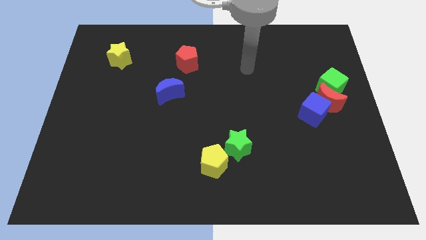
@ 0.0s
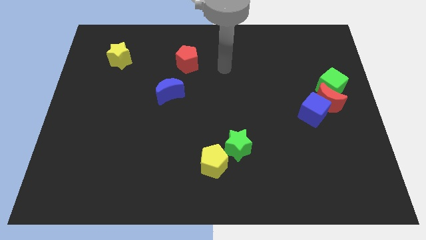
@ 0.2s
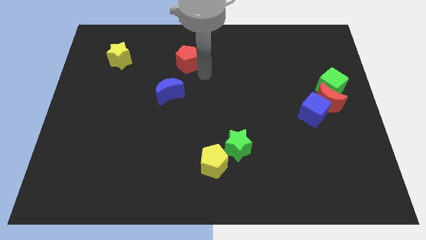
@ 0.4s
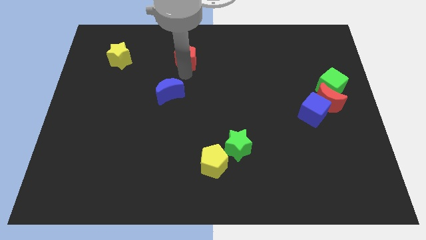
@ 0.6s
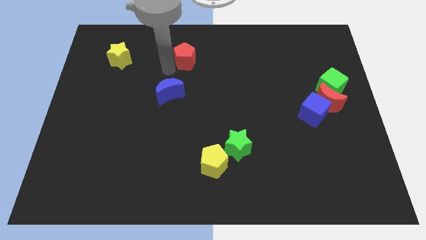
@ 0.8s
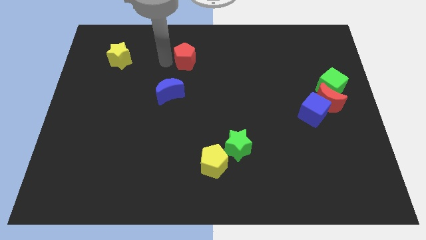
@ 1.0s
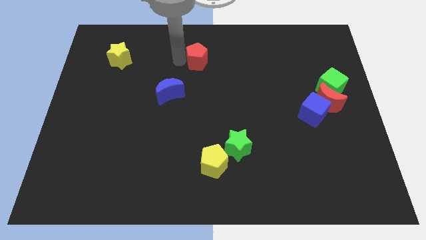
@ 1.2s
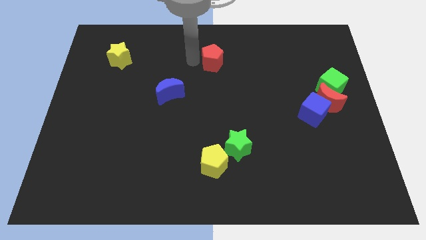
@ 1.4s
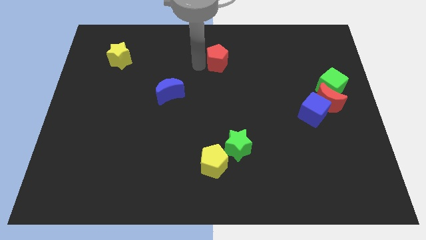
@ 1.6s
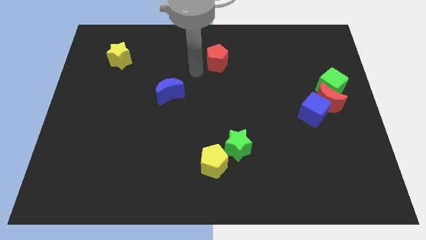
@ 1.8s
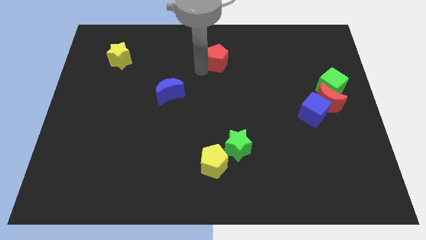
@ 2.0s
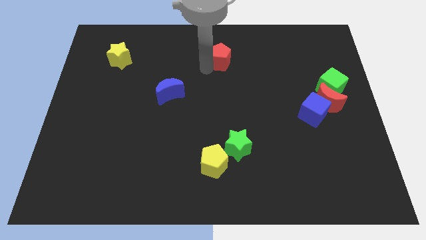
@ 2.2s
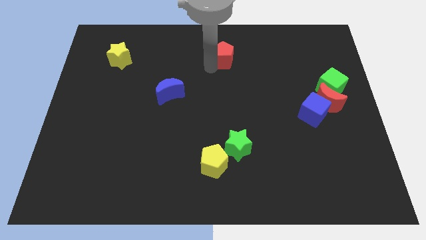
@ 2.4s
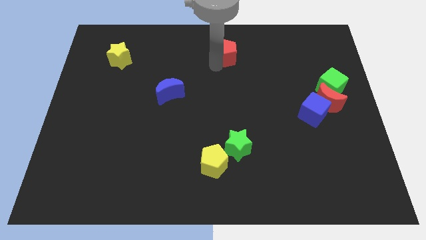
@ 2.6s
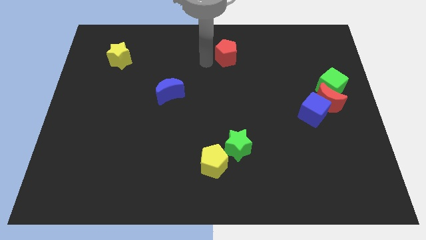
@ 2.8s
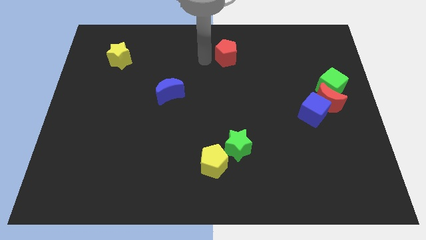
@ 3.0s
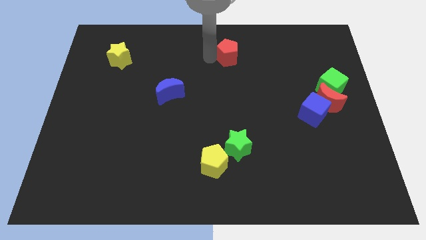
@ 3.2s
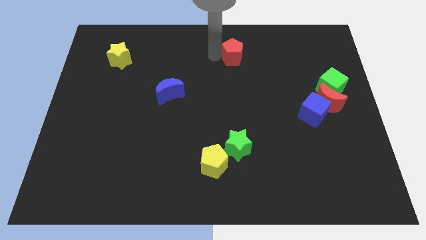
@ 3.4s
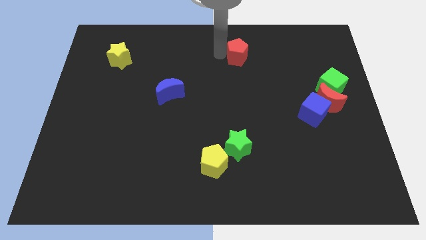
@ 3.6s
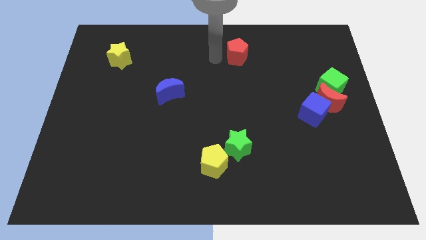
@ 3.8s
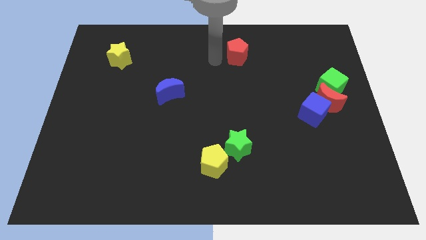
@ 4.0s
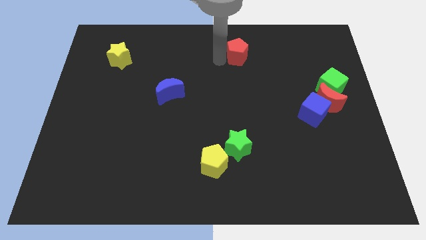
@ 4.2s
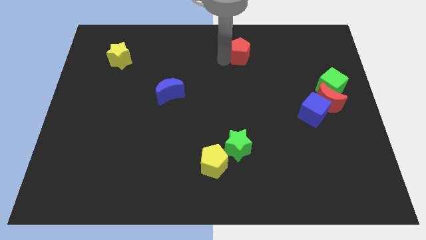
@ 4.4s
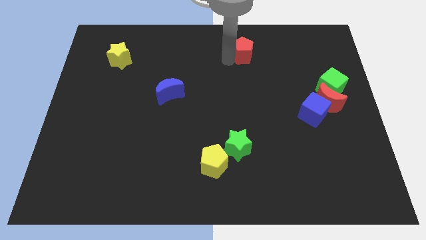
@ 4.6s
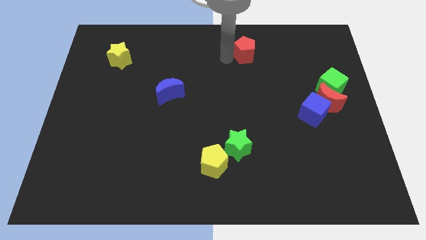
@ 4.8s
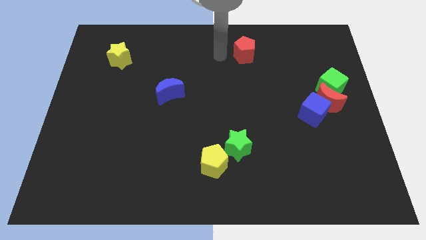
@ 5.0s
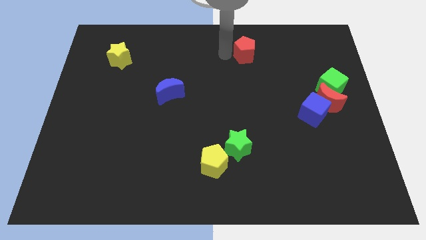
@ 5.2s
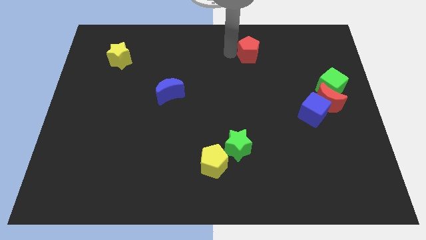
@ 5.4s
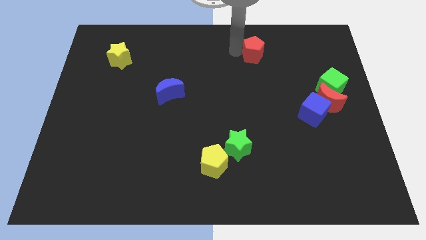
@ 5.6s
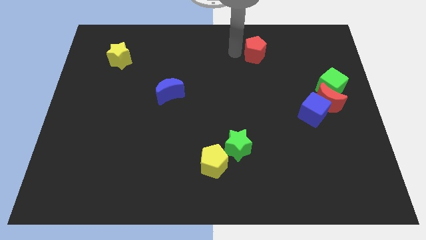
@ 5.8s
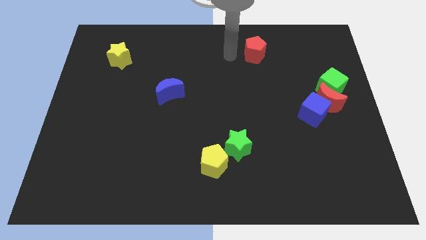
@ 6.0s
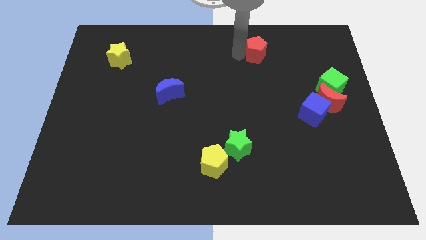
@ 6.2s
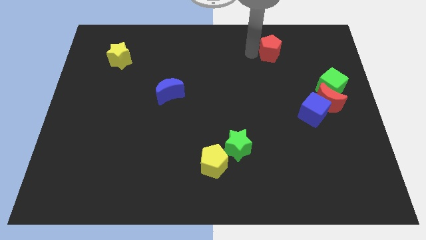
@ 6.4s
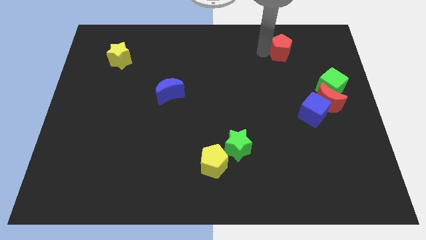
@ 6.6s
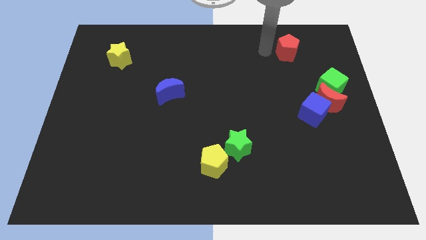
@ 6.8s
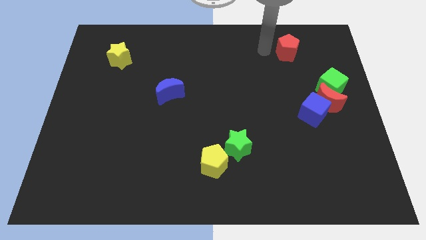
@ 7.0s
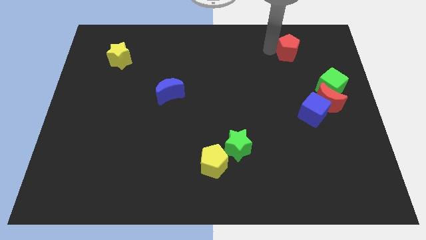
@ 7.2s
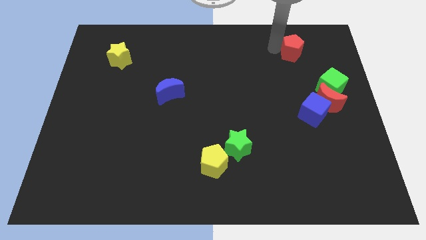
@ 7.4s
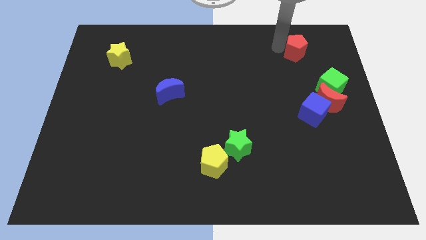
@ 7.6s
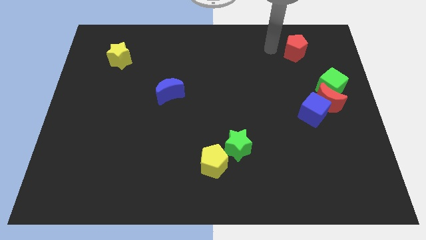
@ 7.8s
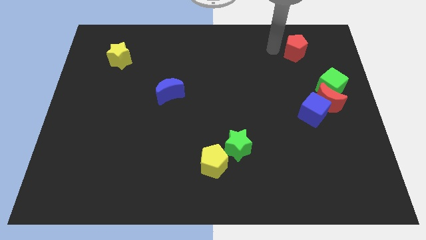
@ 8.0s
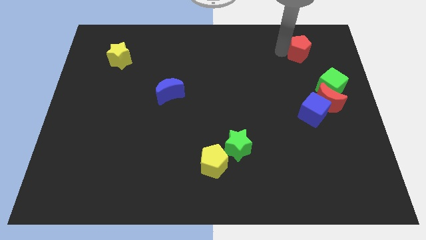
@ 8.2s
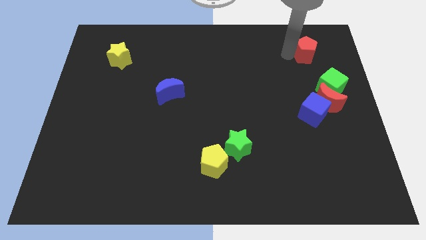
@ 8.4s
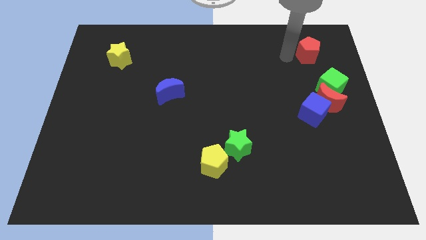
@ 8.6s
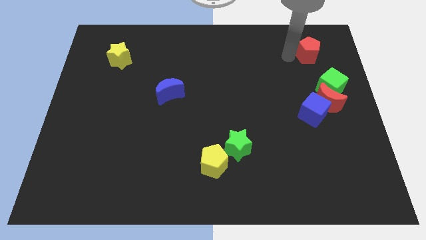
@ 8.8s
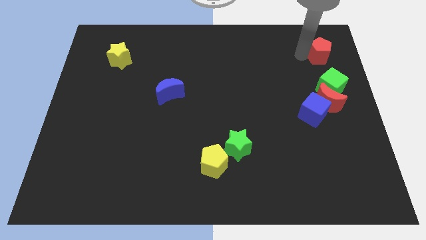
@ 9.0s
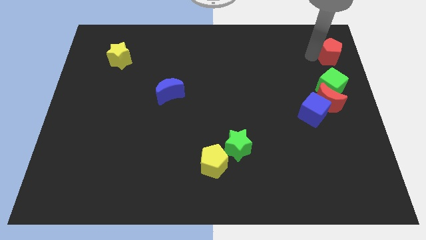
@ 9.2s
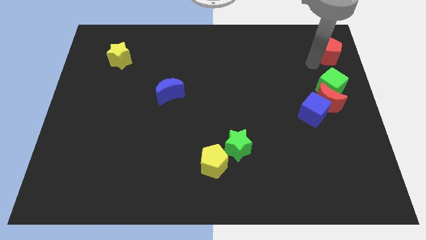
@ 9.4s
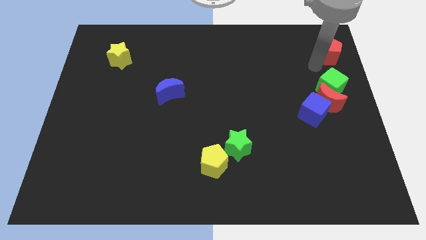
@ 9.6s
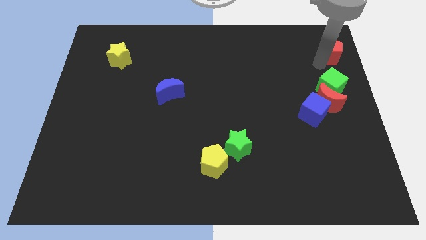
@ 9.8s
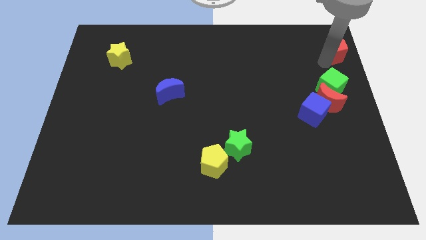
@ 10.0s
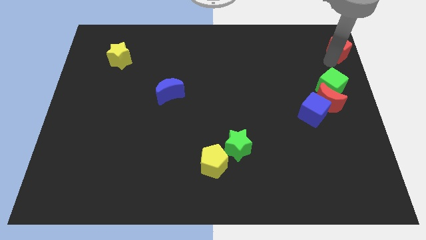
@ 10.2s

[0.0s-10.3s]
push the red pentagon to the top right corner

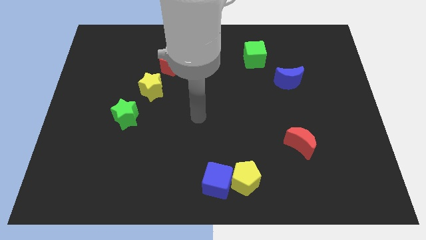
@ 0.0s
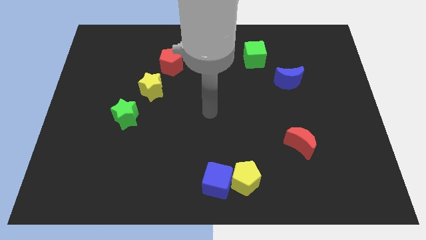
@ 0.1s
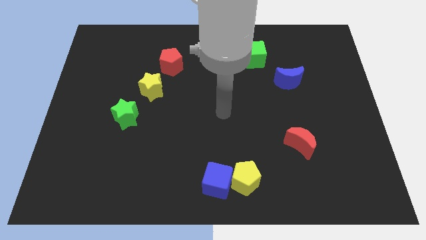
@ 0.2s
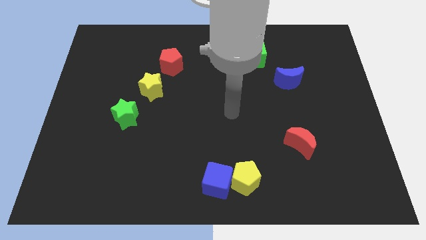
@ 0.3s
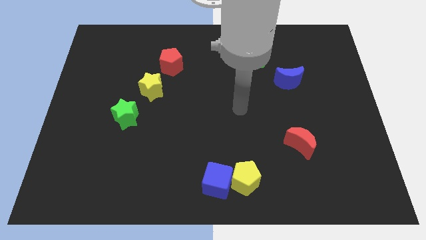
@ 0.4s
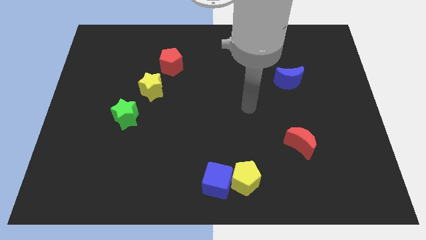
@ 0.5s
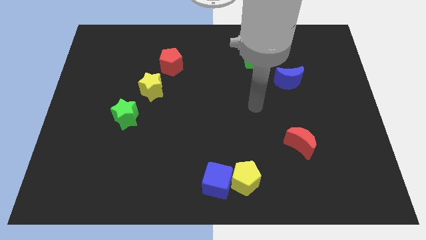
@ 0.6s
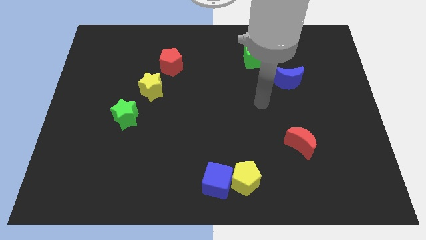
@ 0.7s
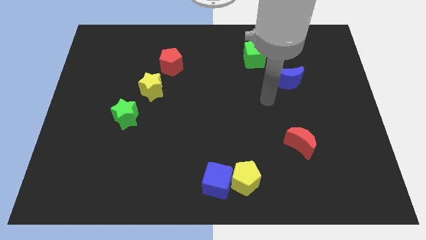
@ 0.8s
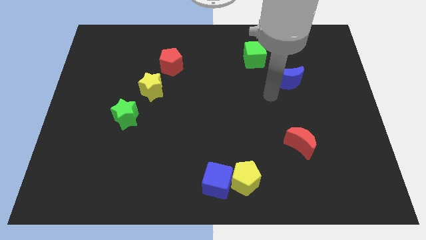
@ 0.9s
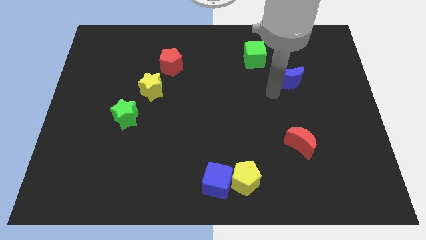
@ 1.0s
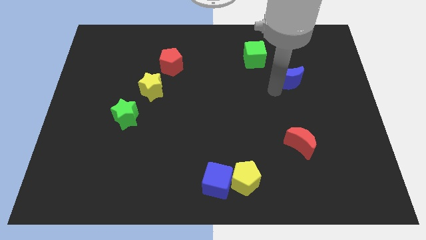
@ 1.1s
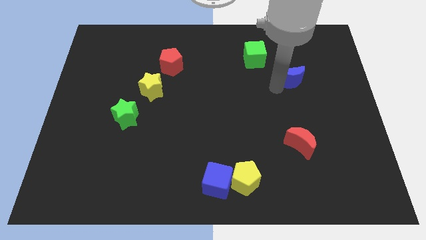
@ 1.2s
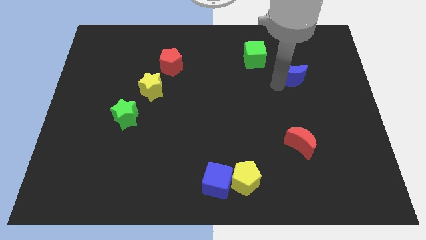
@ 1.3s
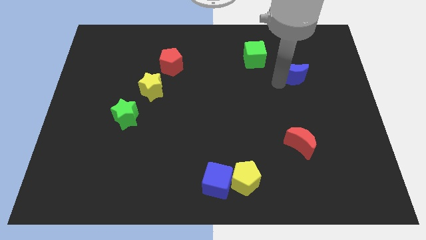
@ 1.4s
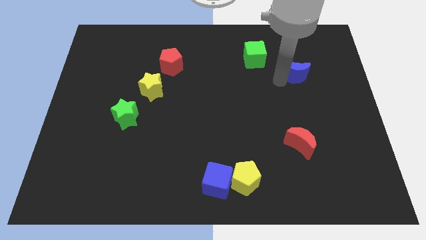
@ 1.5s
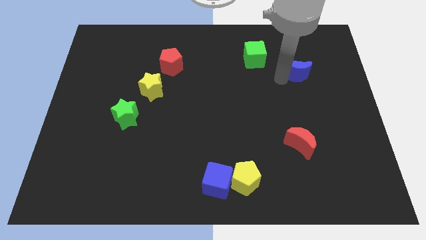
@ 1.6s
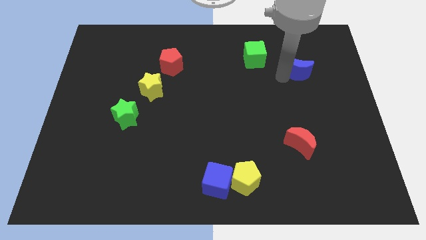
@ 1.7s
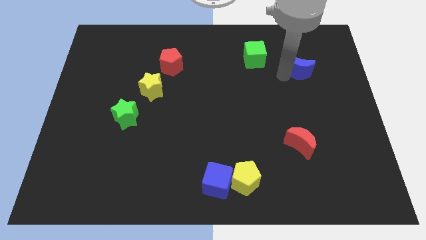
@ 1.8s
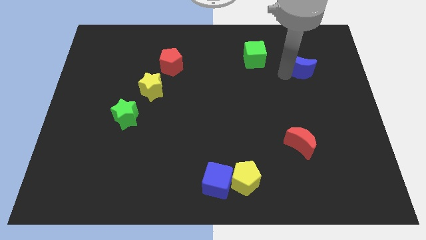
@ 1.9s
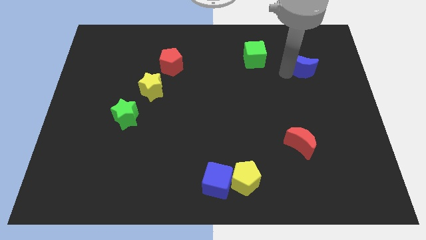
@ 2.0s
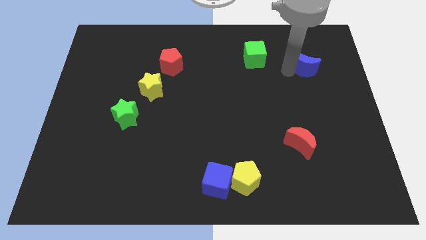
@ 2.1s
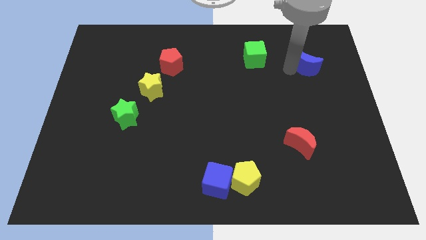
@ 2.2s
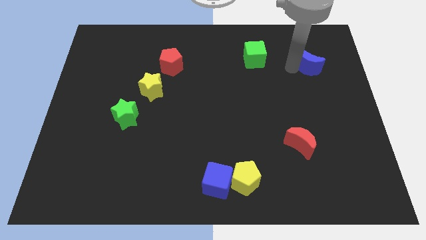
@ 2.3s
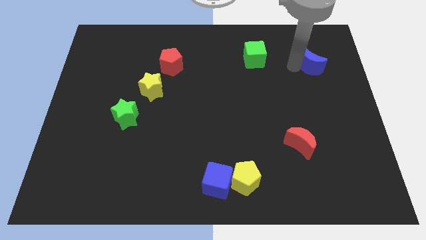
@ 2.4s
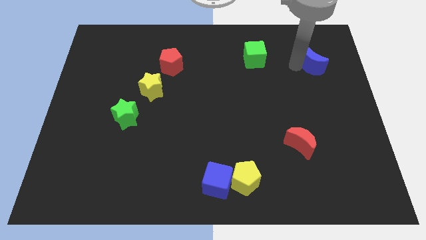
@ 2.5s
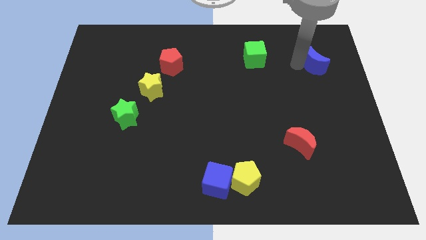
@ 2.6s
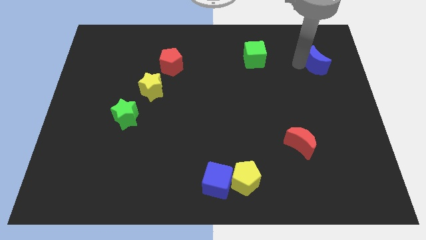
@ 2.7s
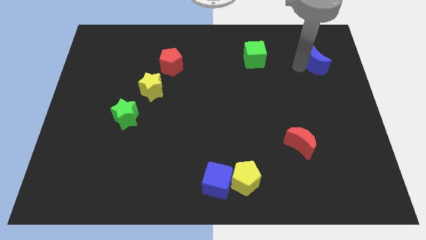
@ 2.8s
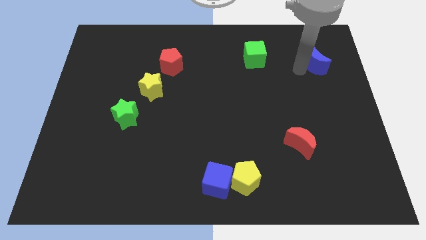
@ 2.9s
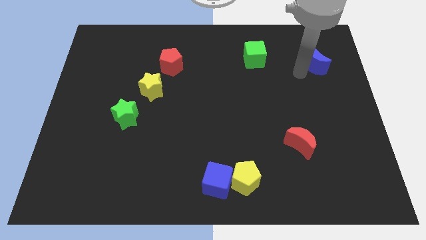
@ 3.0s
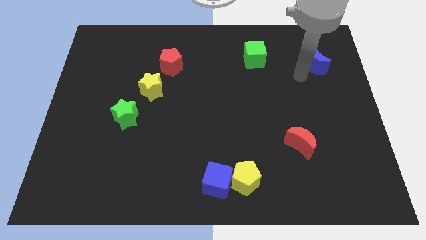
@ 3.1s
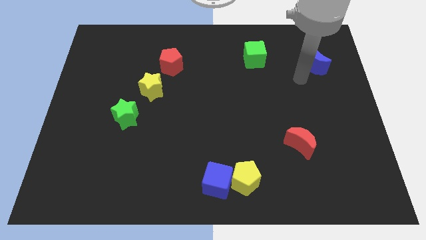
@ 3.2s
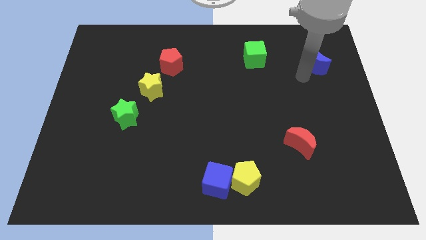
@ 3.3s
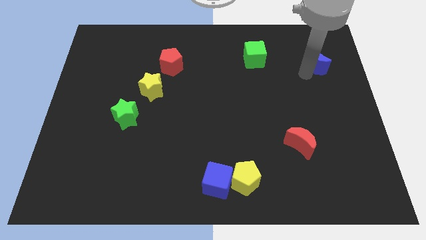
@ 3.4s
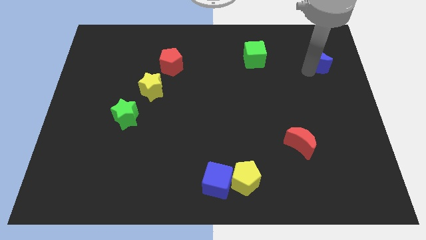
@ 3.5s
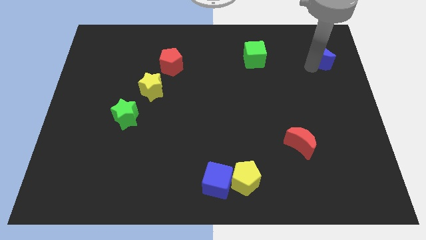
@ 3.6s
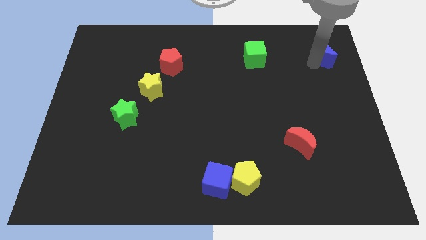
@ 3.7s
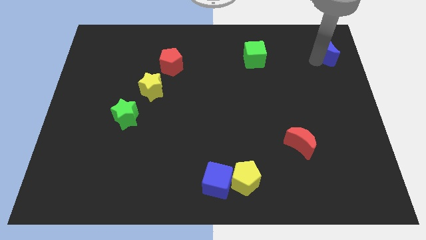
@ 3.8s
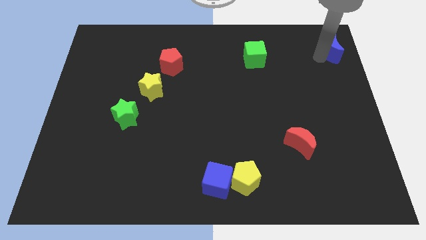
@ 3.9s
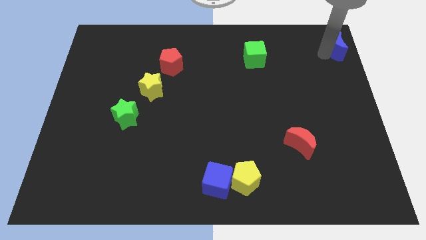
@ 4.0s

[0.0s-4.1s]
push the blue moon to the top right
